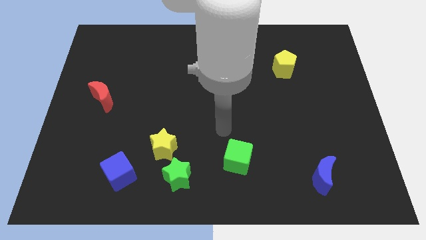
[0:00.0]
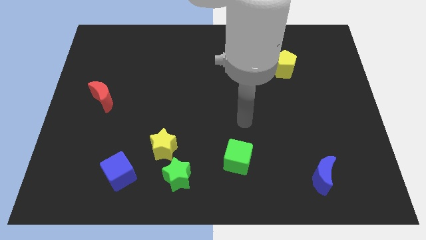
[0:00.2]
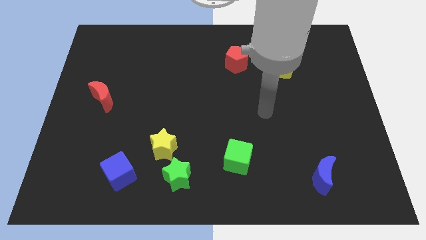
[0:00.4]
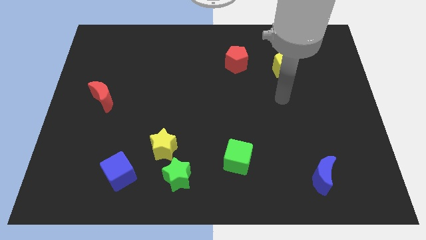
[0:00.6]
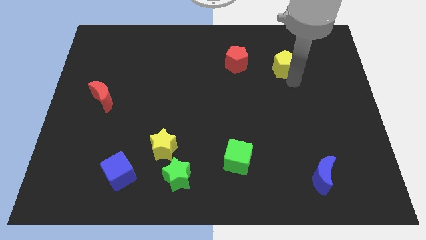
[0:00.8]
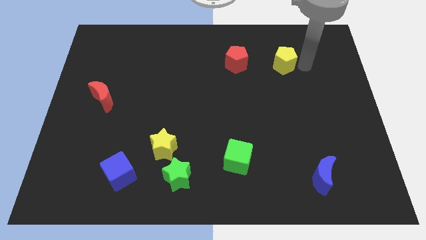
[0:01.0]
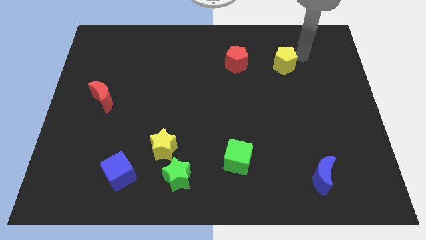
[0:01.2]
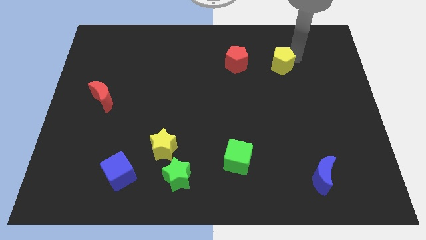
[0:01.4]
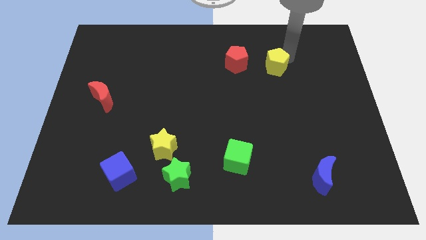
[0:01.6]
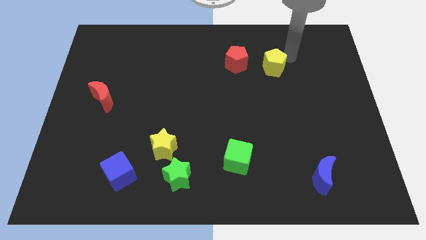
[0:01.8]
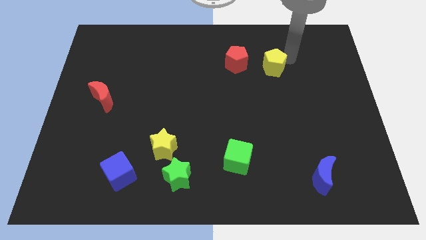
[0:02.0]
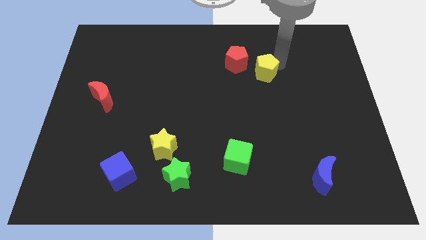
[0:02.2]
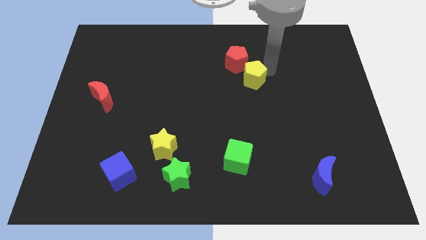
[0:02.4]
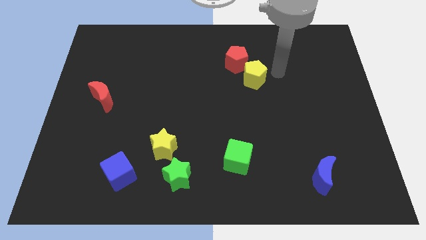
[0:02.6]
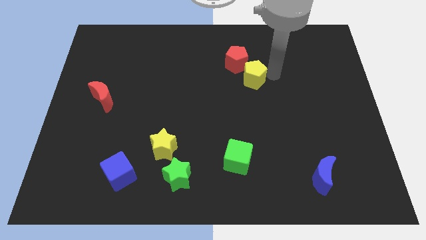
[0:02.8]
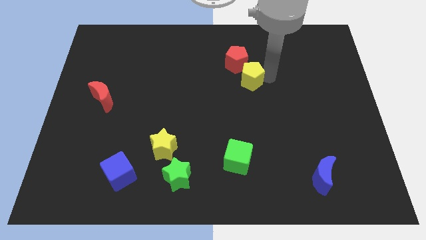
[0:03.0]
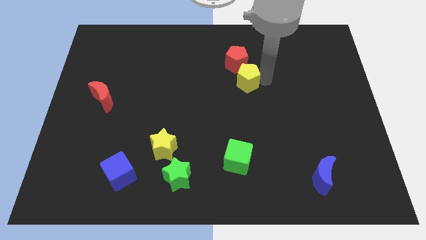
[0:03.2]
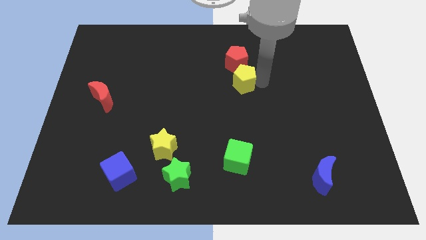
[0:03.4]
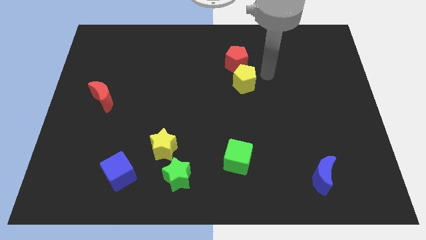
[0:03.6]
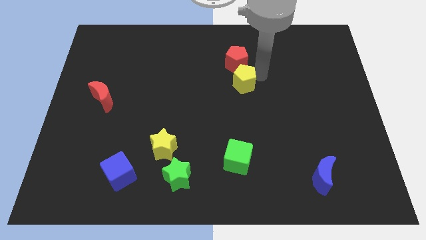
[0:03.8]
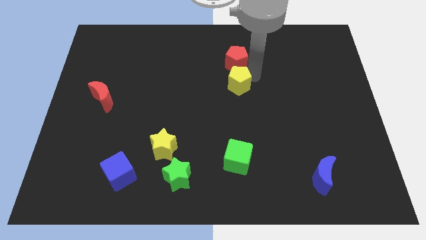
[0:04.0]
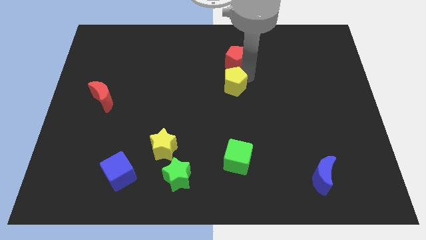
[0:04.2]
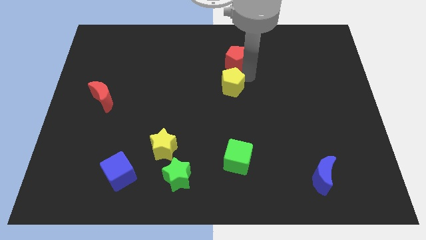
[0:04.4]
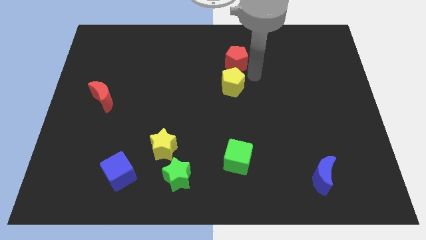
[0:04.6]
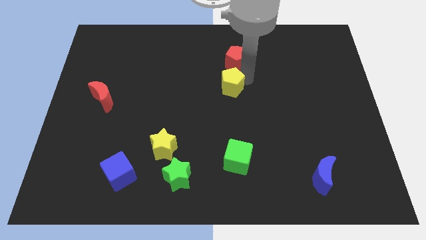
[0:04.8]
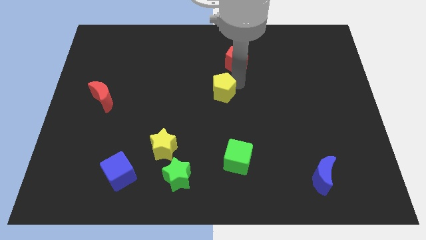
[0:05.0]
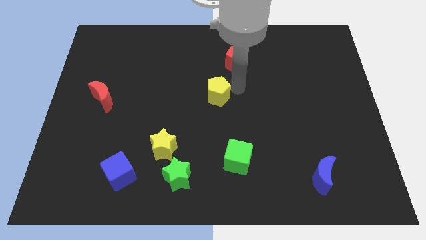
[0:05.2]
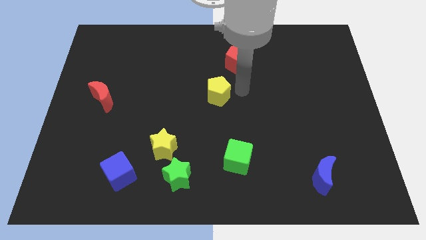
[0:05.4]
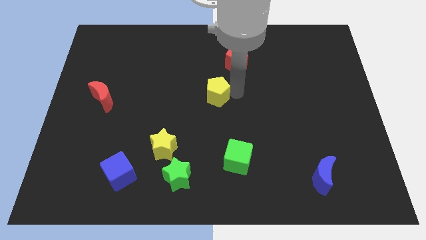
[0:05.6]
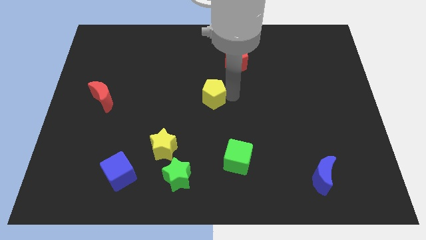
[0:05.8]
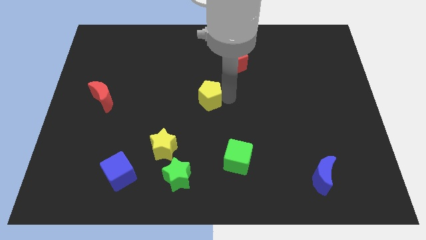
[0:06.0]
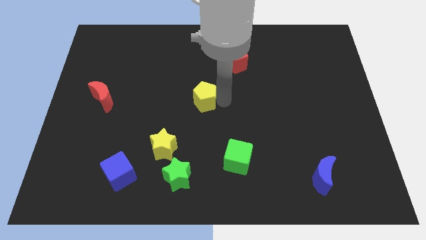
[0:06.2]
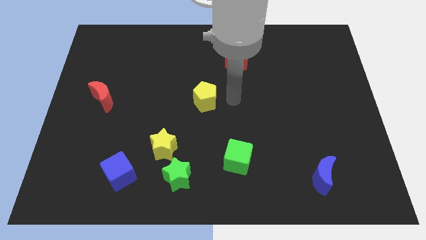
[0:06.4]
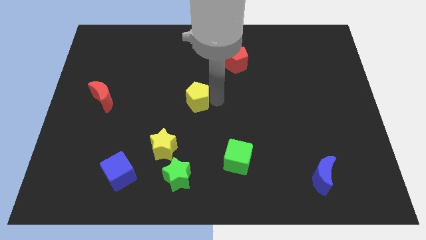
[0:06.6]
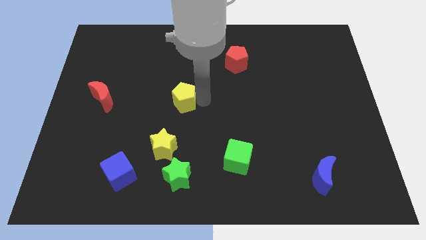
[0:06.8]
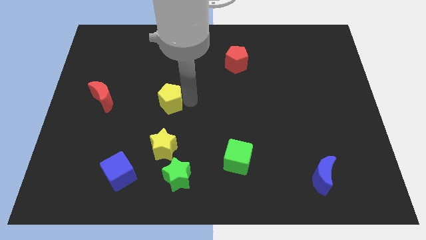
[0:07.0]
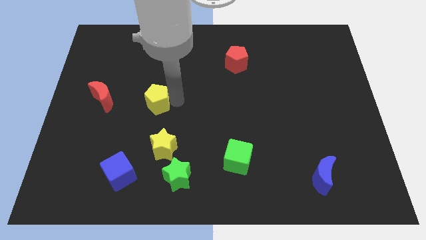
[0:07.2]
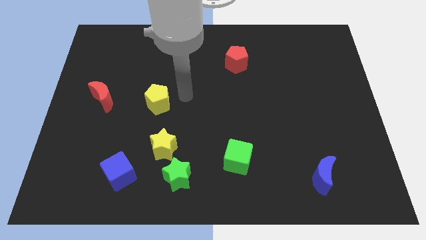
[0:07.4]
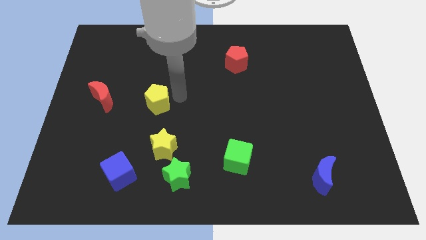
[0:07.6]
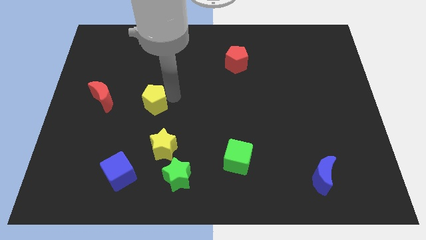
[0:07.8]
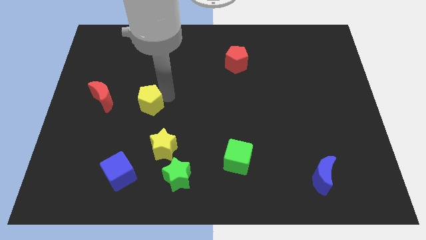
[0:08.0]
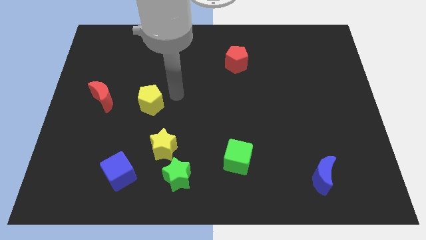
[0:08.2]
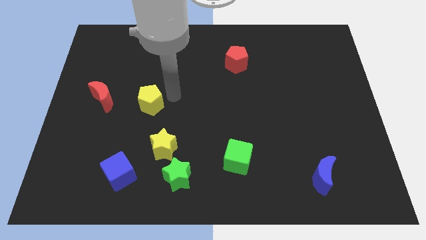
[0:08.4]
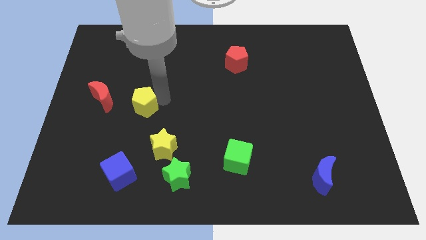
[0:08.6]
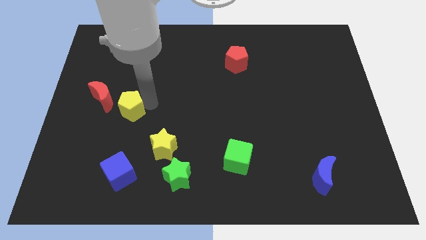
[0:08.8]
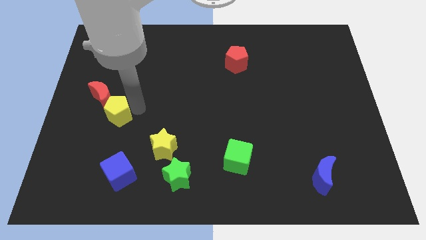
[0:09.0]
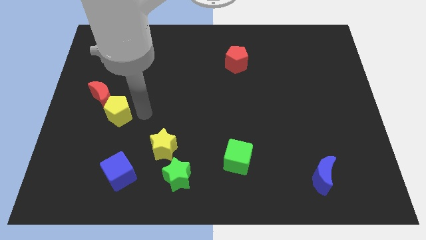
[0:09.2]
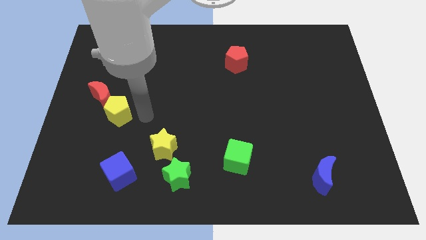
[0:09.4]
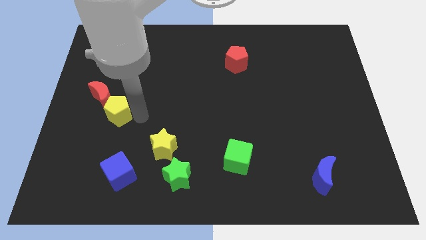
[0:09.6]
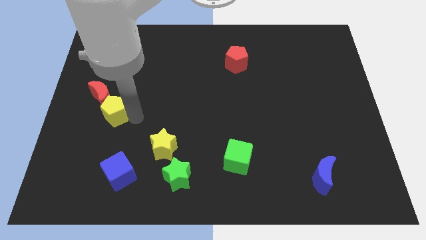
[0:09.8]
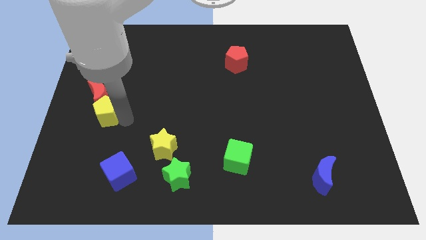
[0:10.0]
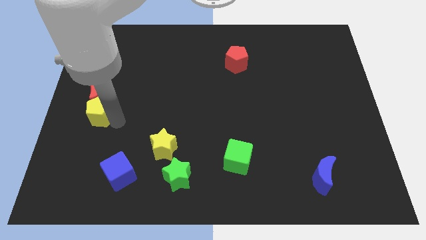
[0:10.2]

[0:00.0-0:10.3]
put the yellow pentagon to the center left

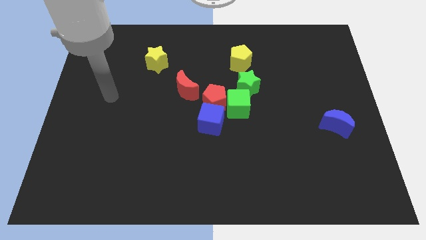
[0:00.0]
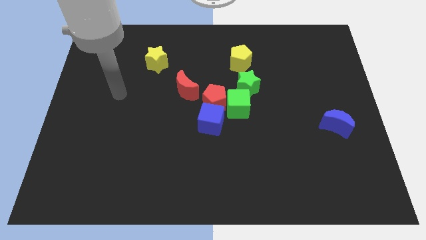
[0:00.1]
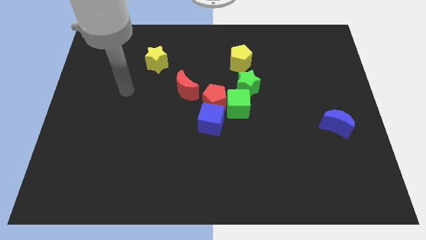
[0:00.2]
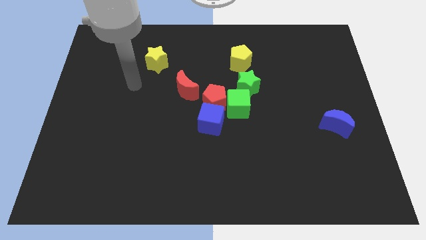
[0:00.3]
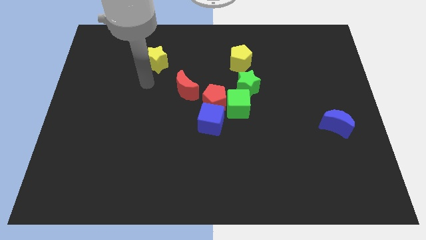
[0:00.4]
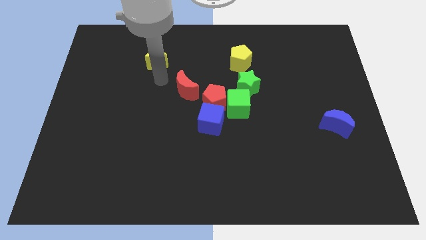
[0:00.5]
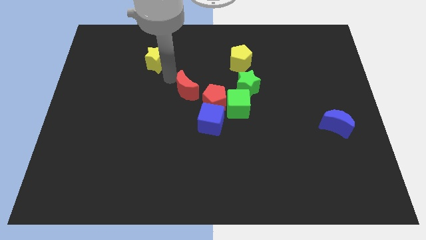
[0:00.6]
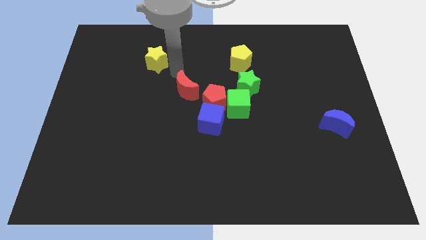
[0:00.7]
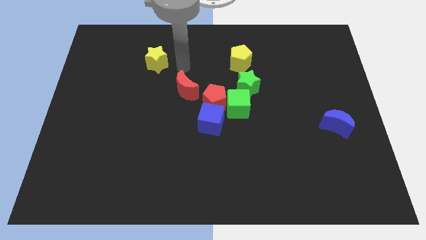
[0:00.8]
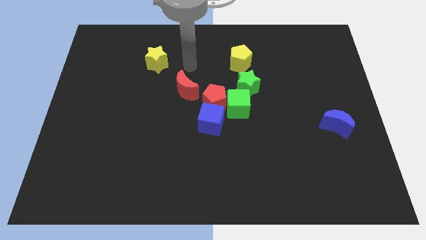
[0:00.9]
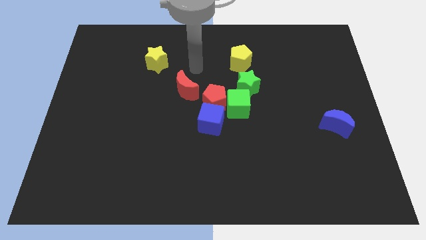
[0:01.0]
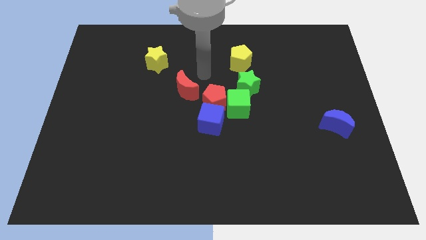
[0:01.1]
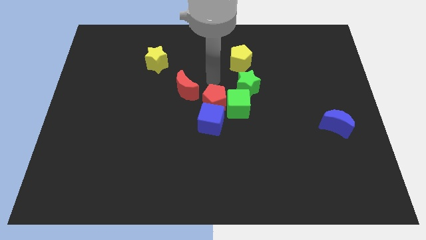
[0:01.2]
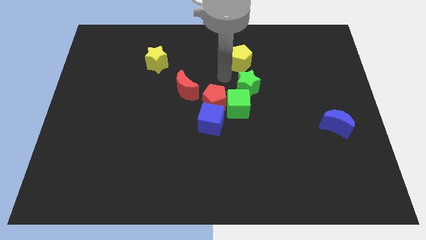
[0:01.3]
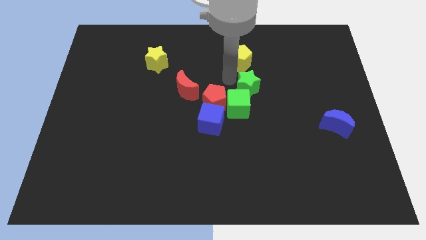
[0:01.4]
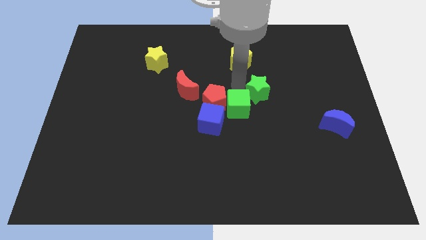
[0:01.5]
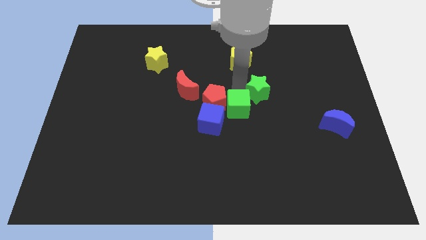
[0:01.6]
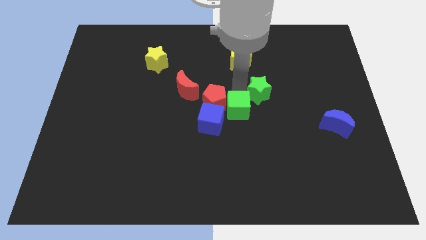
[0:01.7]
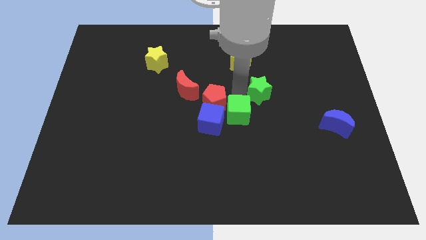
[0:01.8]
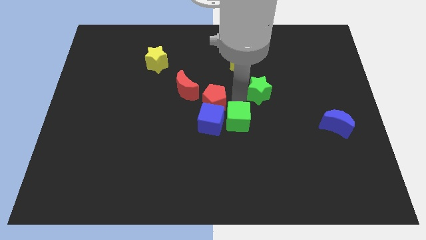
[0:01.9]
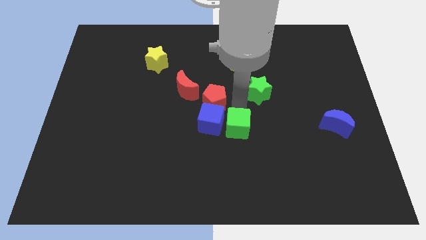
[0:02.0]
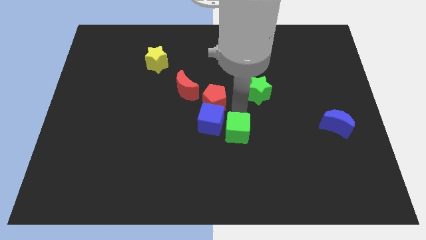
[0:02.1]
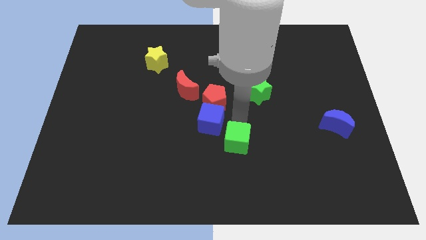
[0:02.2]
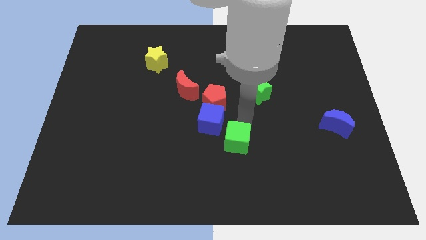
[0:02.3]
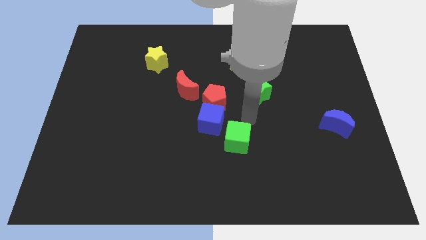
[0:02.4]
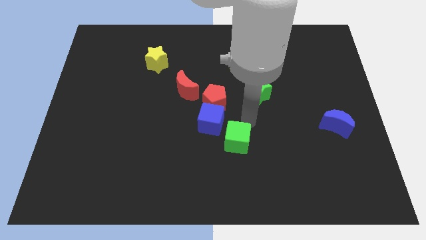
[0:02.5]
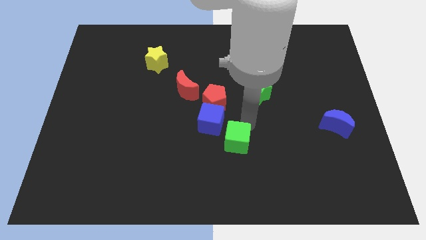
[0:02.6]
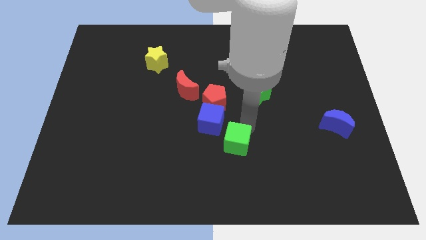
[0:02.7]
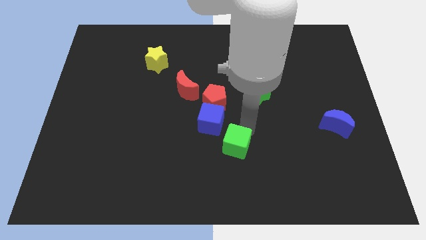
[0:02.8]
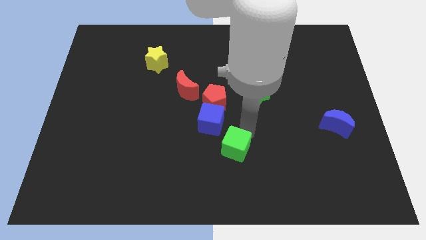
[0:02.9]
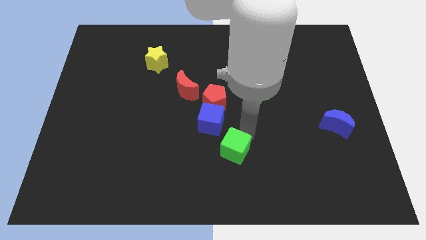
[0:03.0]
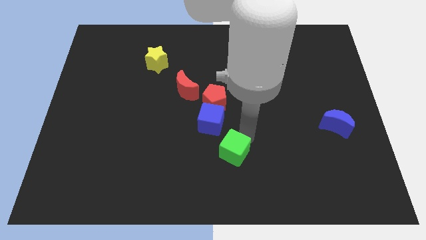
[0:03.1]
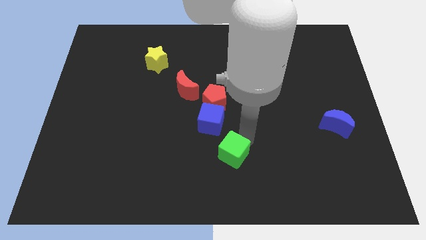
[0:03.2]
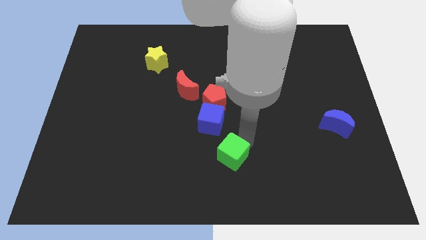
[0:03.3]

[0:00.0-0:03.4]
move the green cube to the bottom
